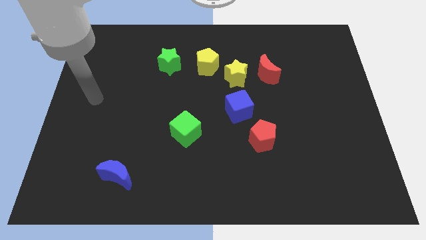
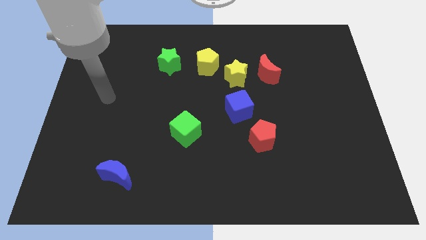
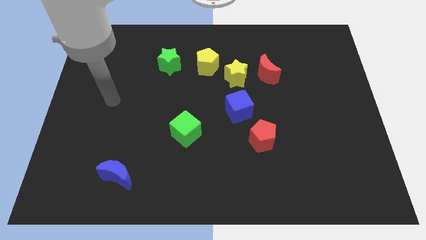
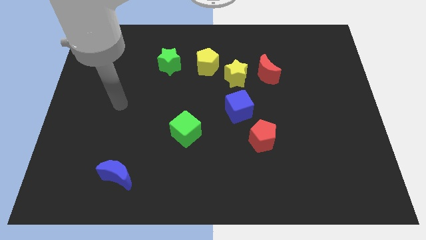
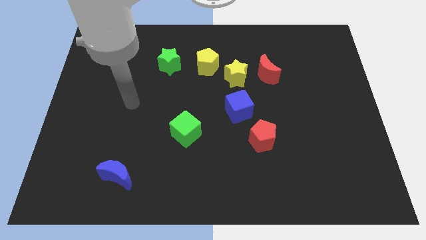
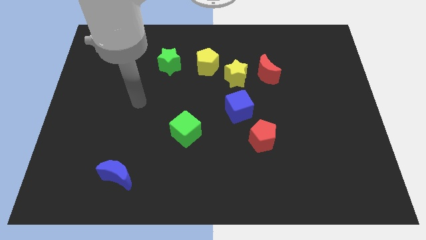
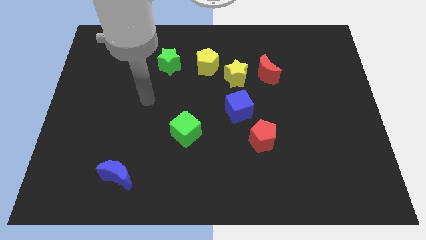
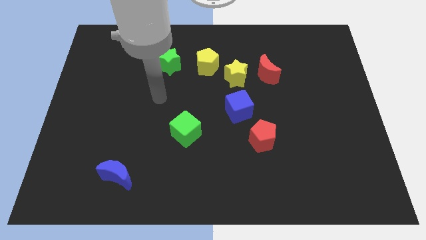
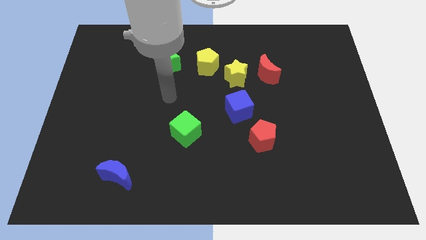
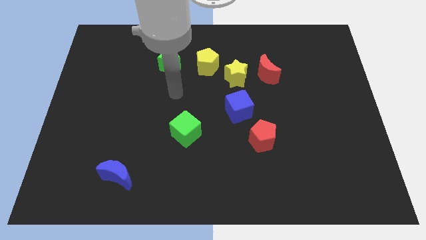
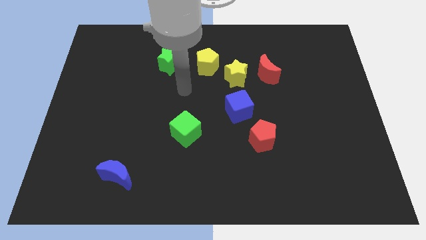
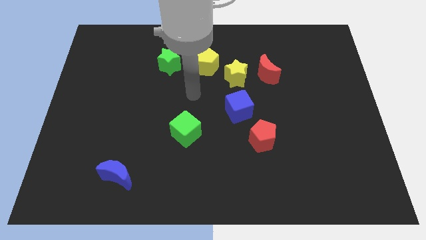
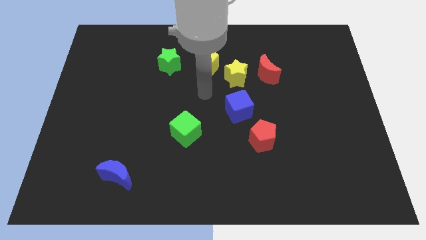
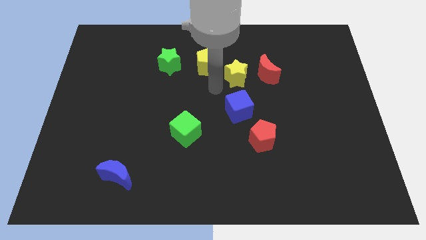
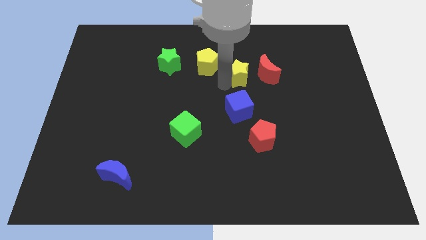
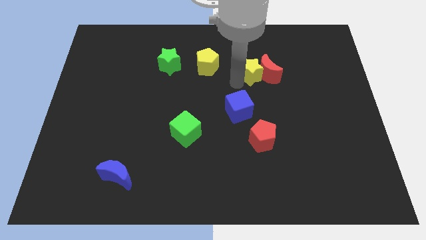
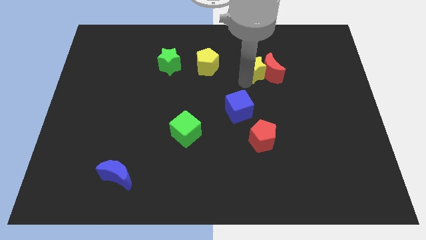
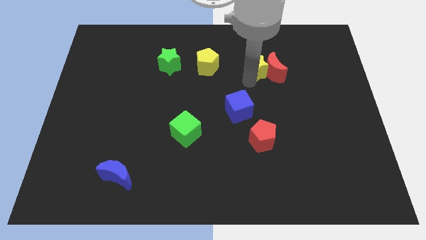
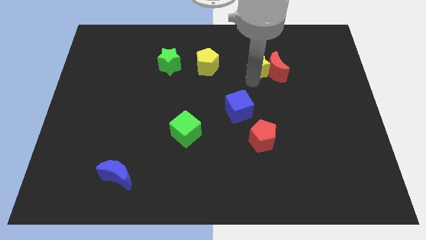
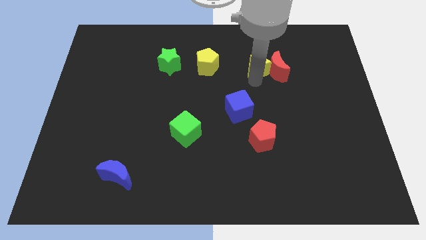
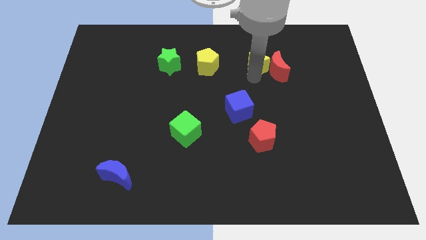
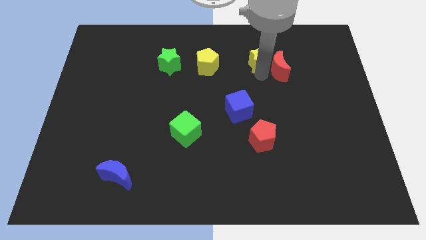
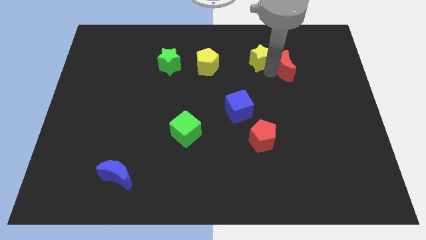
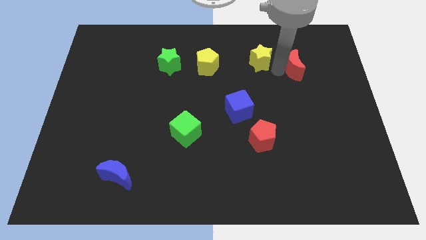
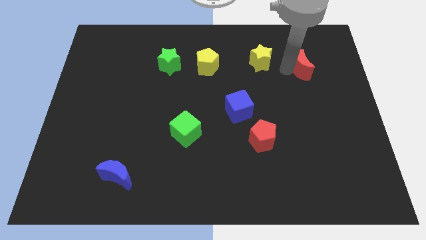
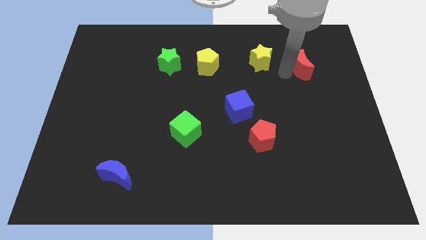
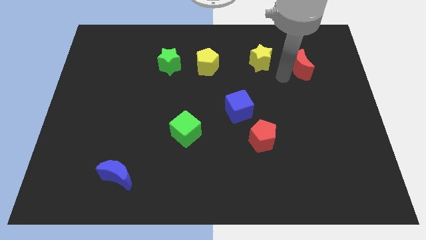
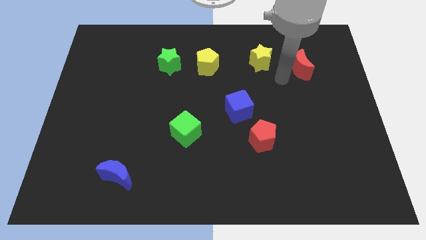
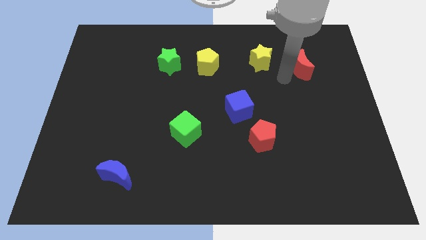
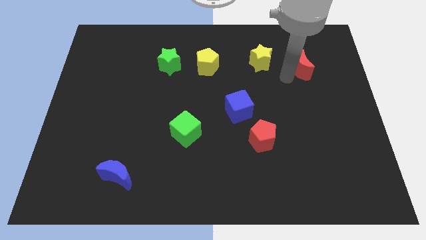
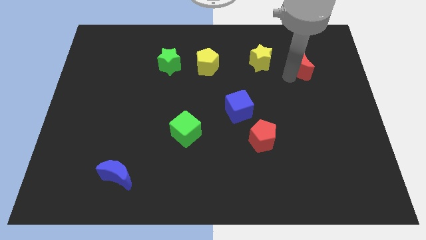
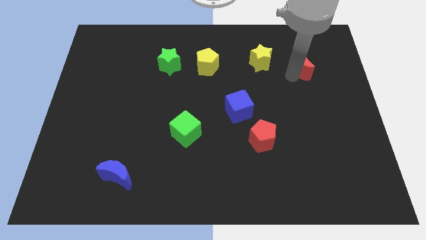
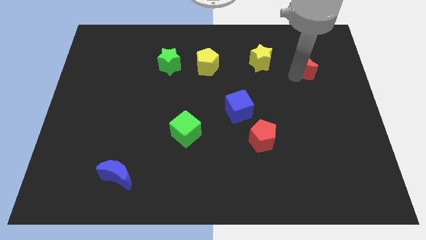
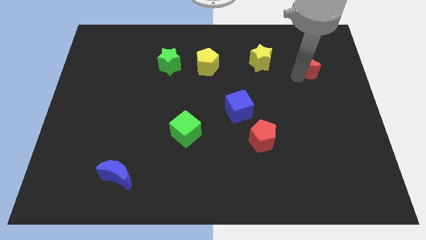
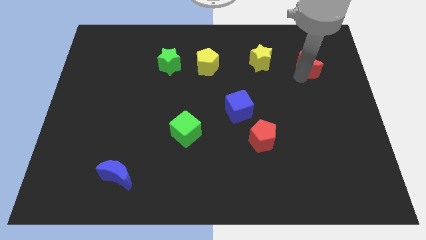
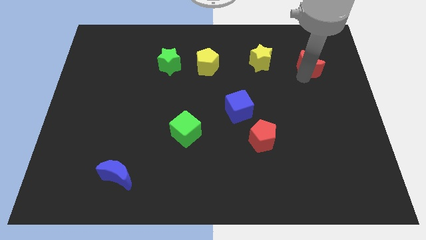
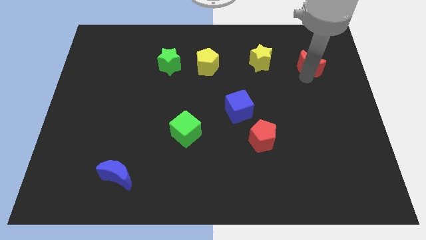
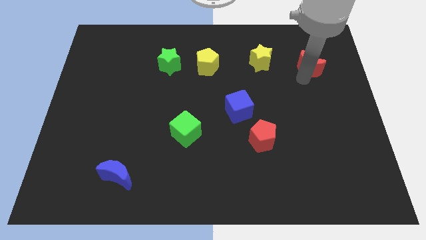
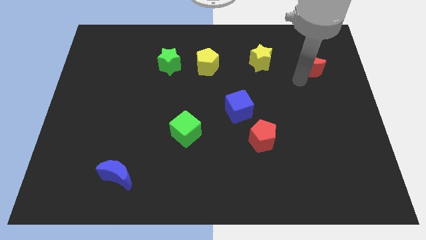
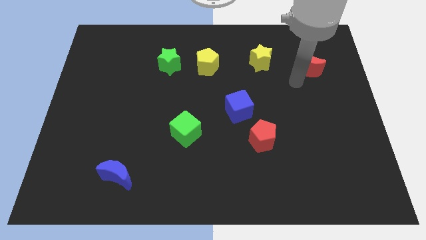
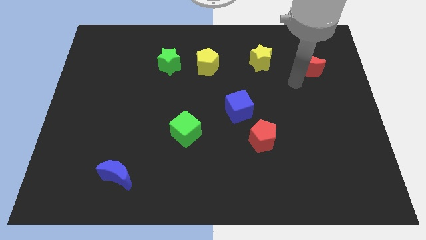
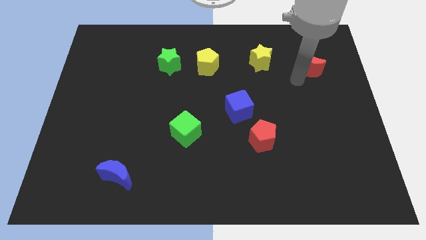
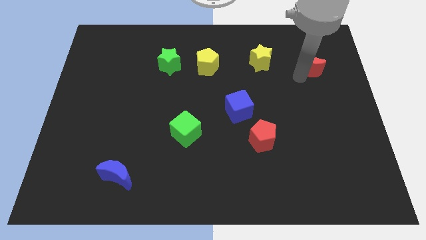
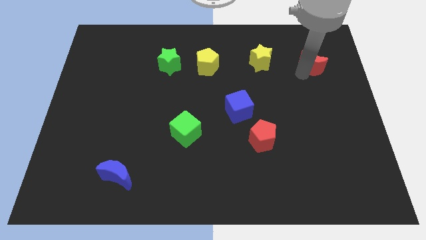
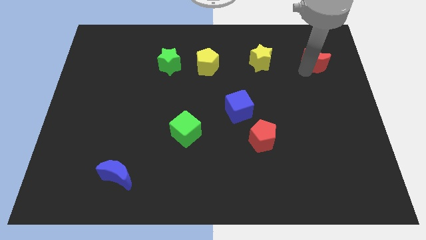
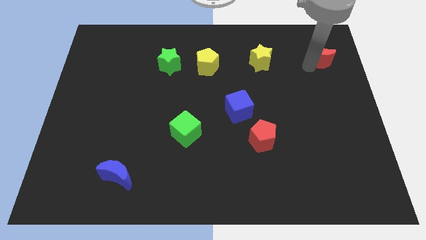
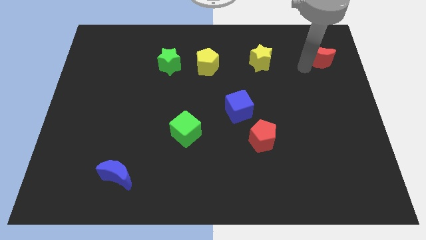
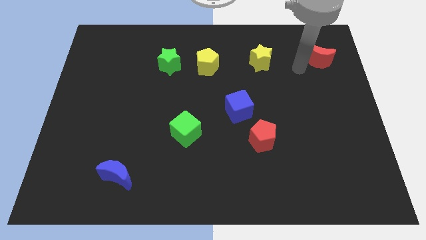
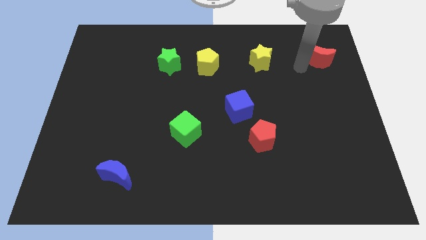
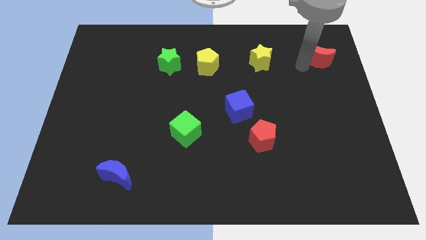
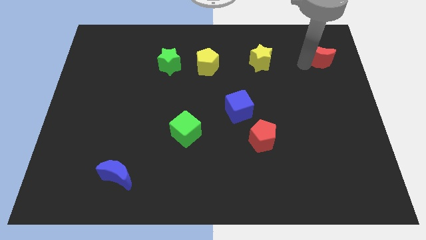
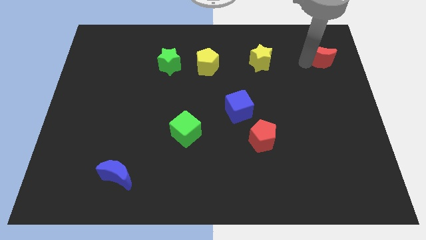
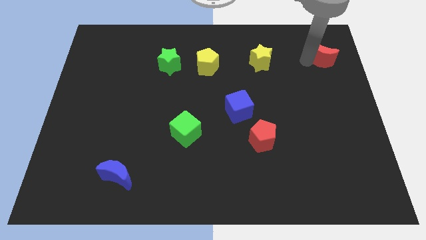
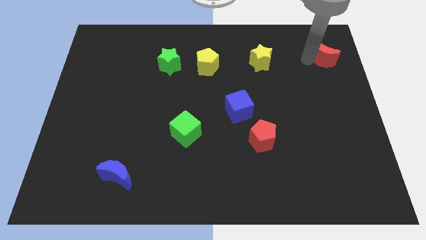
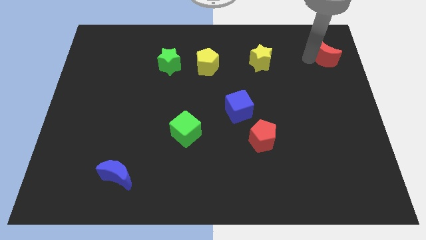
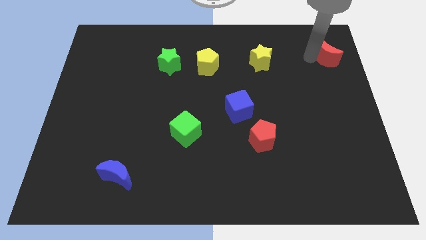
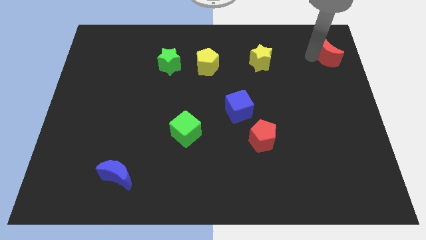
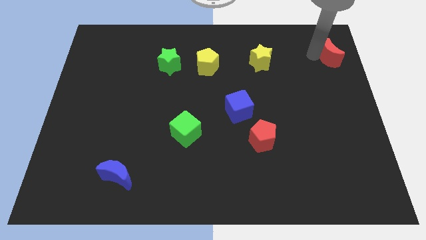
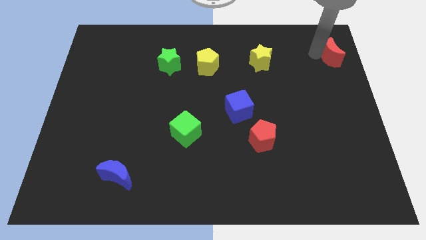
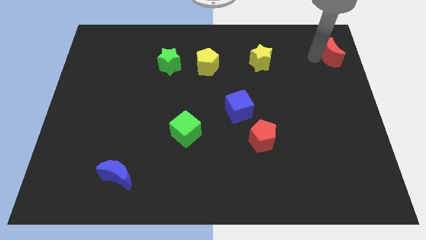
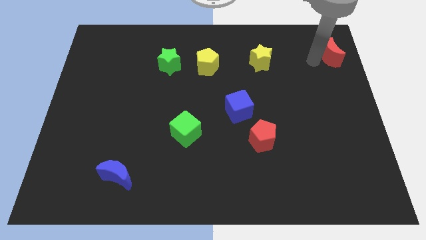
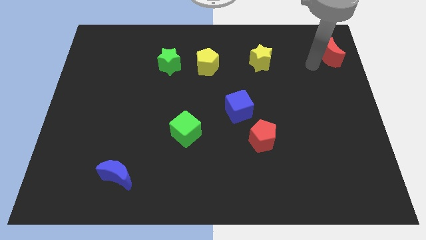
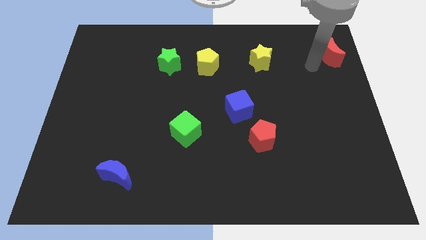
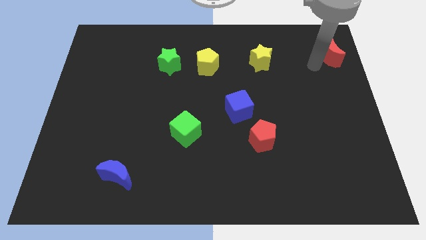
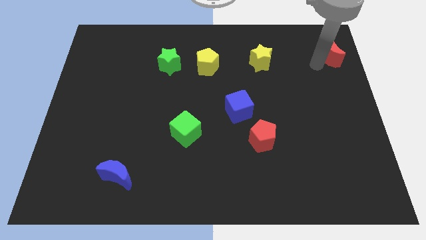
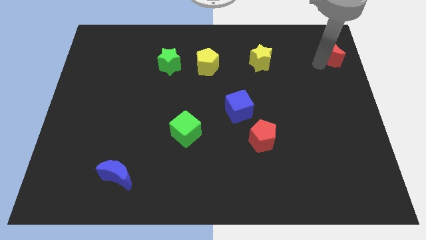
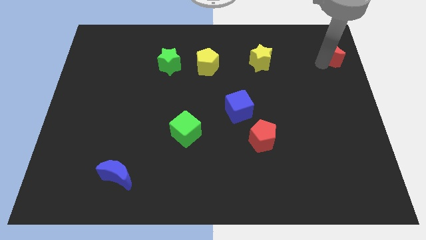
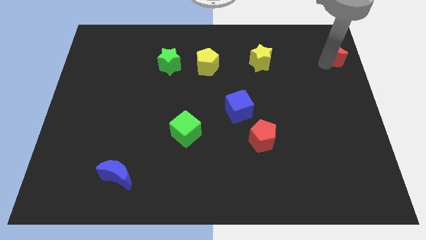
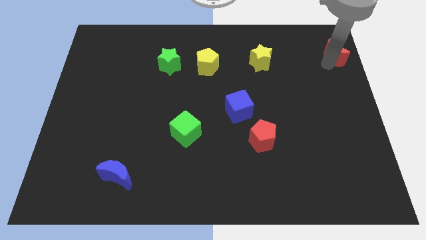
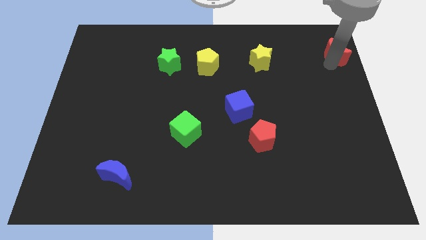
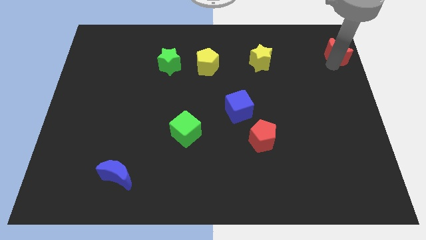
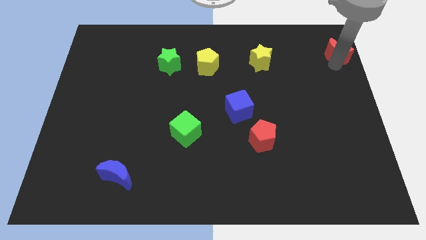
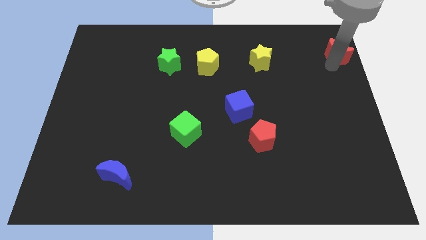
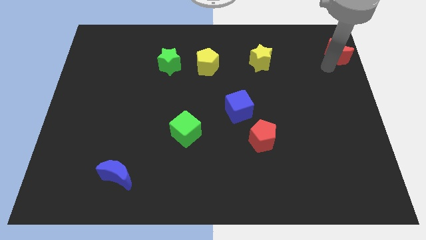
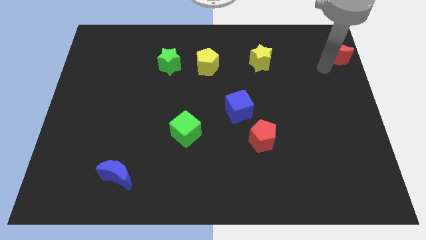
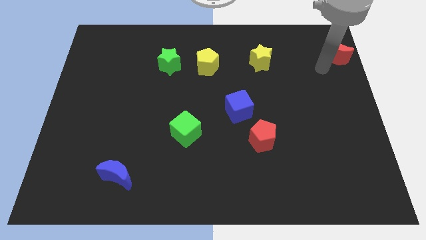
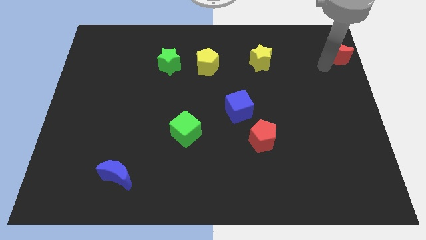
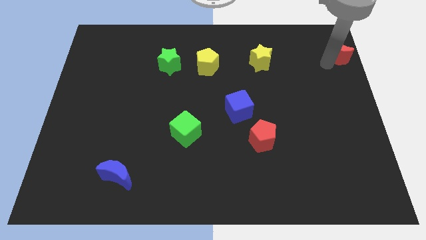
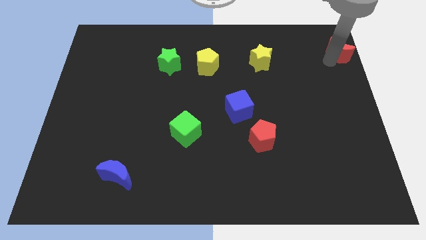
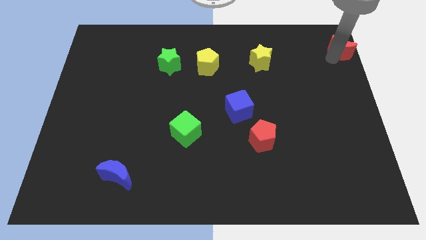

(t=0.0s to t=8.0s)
slide the red moon to the top right of the board
